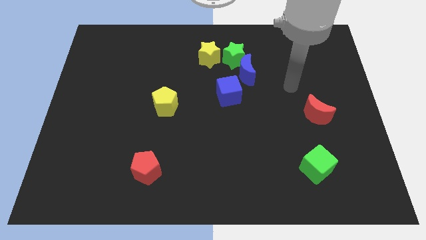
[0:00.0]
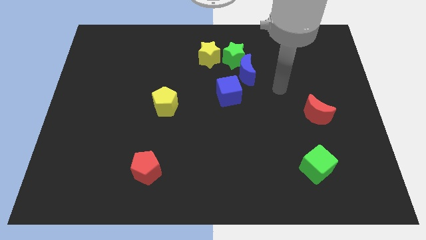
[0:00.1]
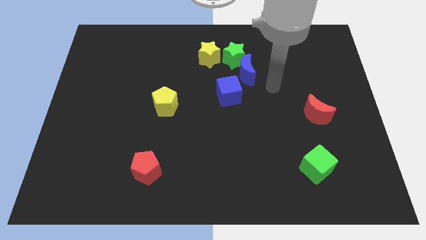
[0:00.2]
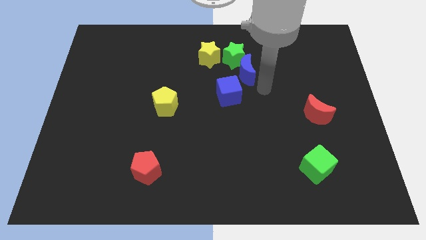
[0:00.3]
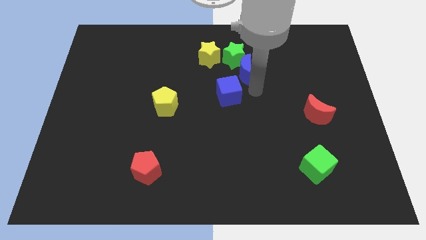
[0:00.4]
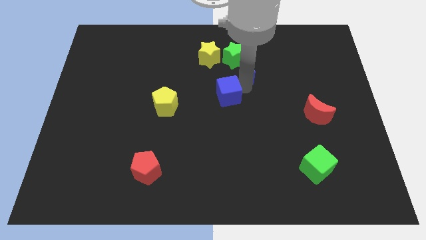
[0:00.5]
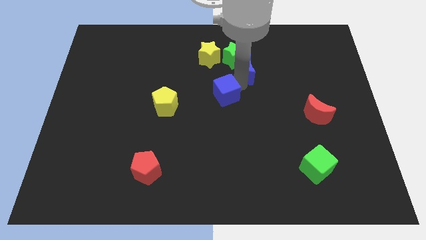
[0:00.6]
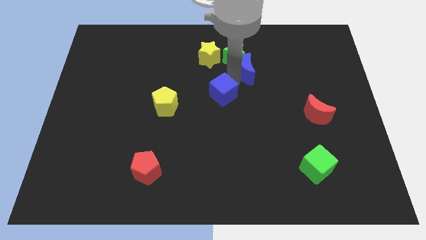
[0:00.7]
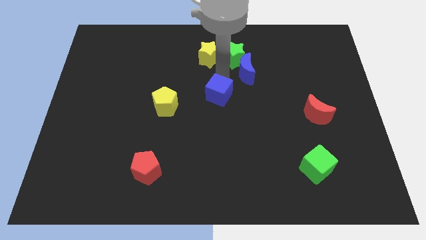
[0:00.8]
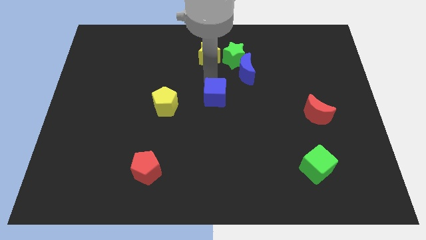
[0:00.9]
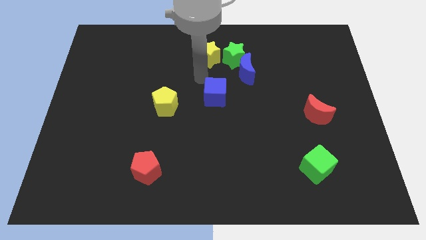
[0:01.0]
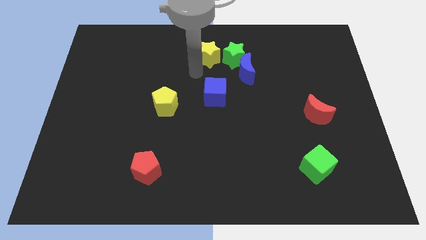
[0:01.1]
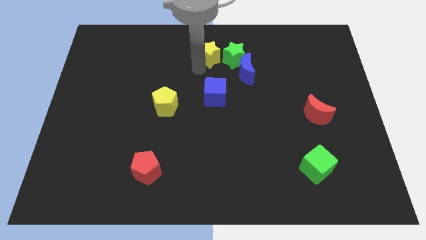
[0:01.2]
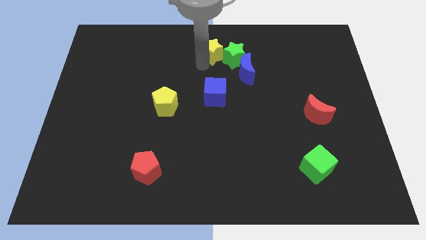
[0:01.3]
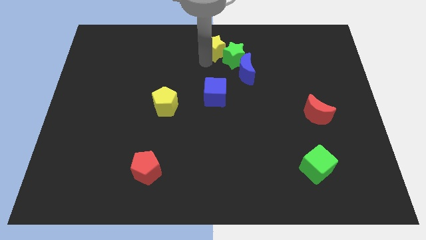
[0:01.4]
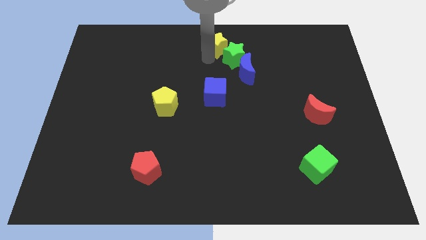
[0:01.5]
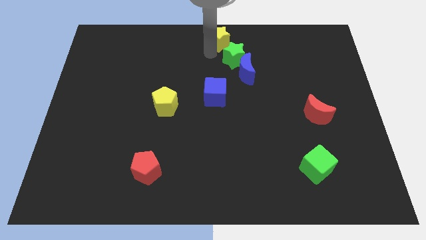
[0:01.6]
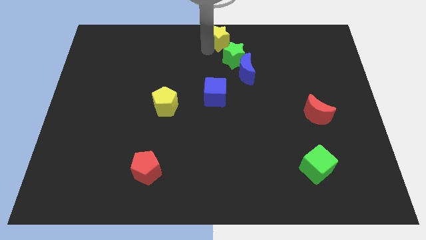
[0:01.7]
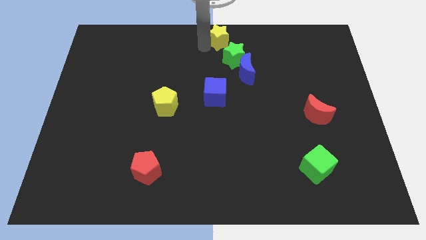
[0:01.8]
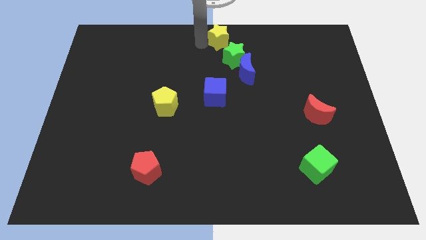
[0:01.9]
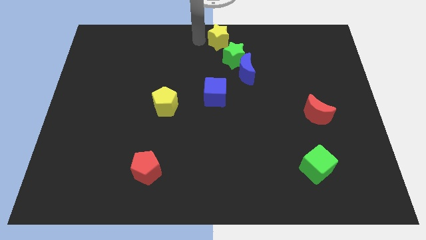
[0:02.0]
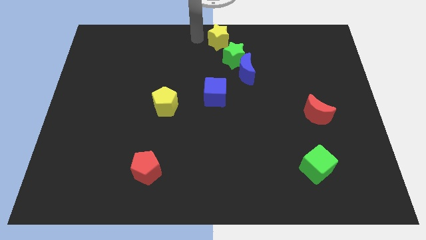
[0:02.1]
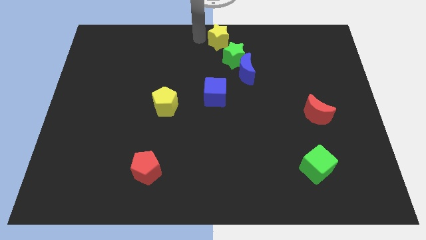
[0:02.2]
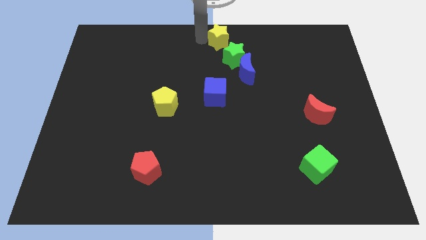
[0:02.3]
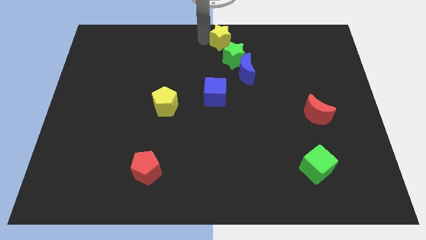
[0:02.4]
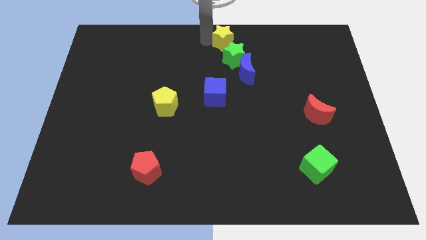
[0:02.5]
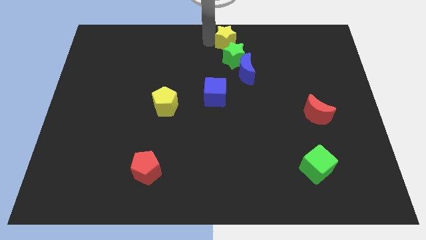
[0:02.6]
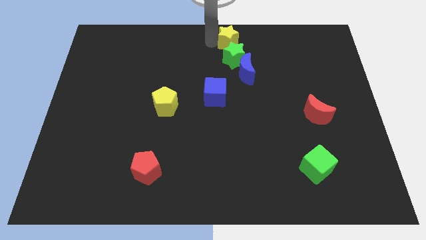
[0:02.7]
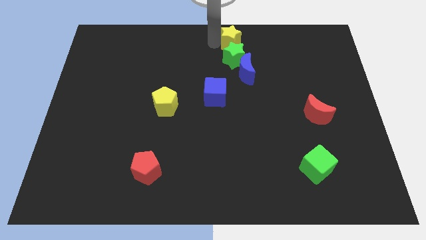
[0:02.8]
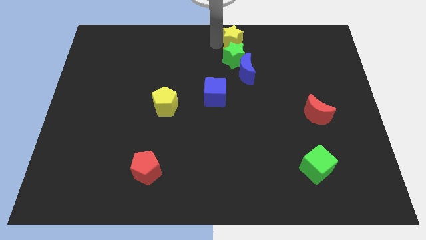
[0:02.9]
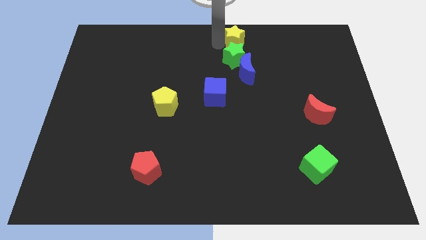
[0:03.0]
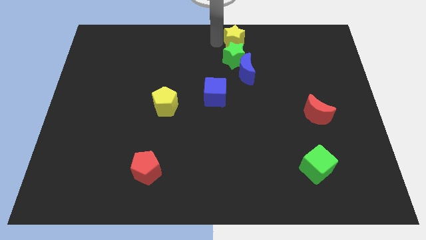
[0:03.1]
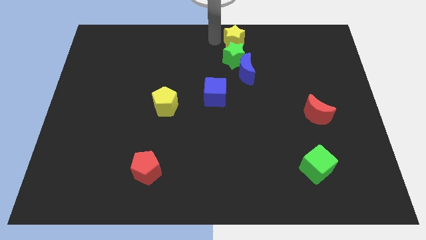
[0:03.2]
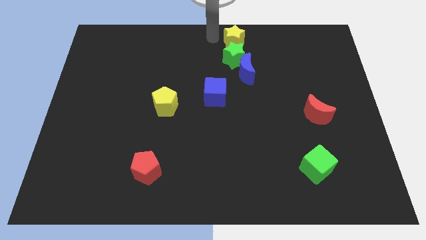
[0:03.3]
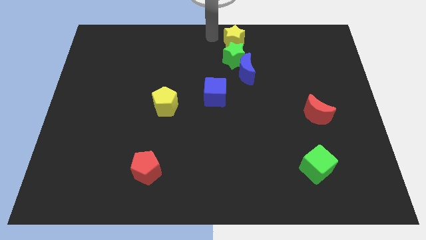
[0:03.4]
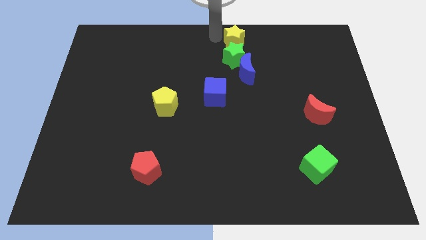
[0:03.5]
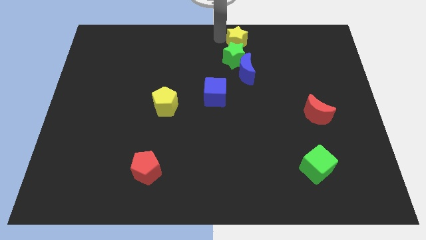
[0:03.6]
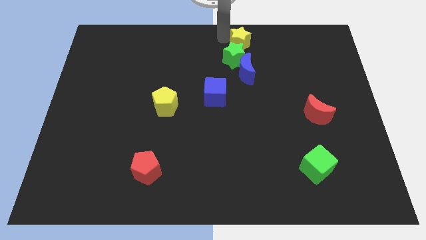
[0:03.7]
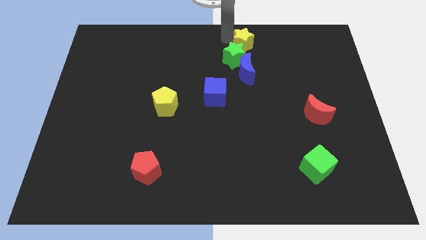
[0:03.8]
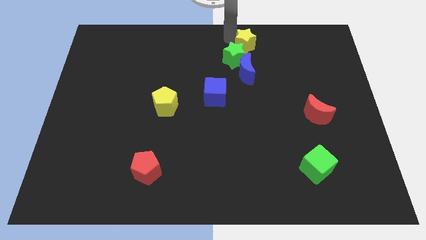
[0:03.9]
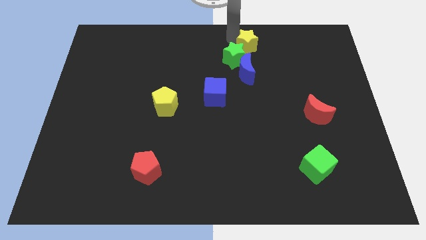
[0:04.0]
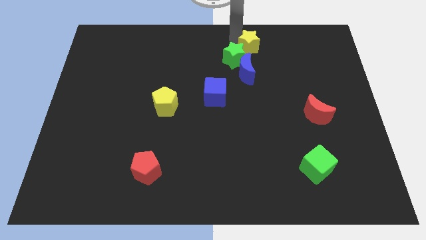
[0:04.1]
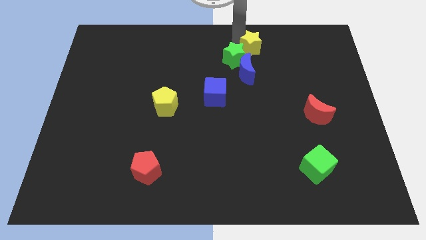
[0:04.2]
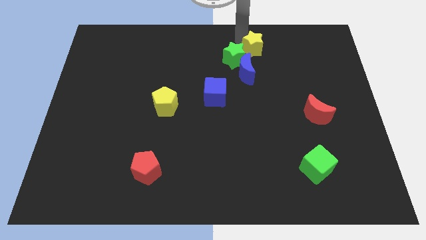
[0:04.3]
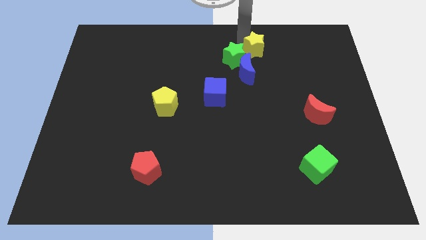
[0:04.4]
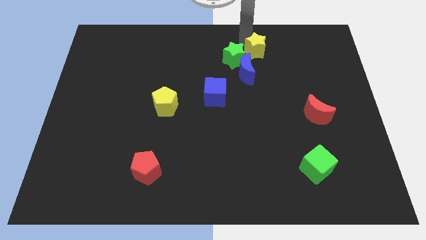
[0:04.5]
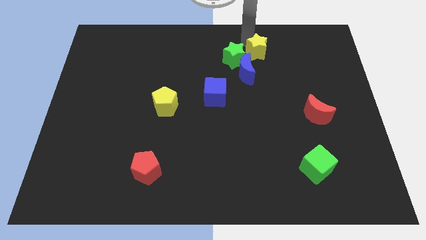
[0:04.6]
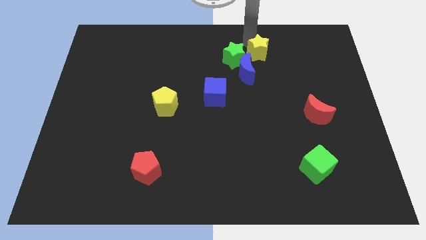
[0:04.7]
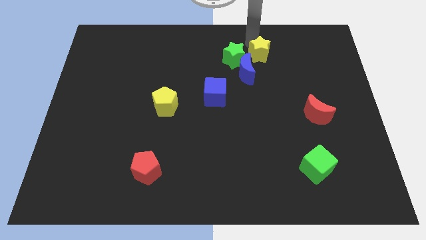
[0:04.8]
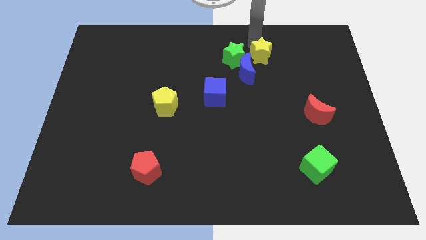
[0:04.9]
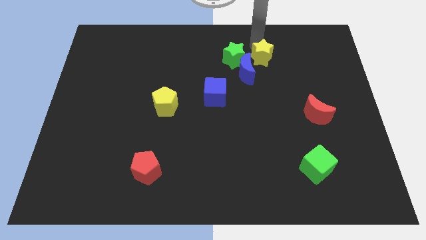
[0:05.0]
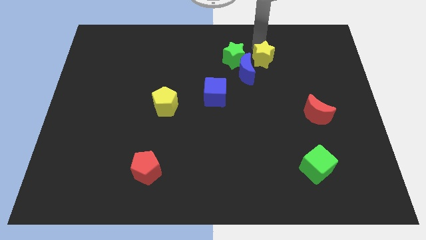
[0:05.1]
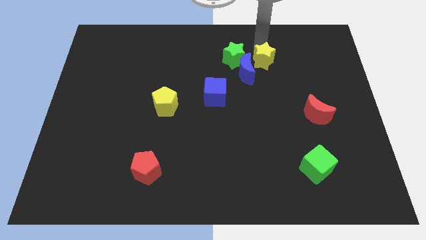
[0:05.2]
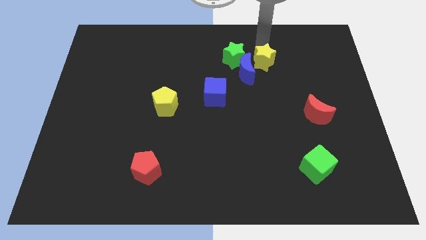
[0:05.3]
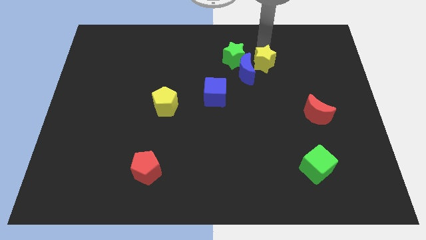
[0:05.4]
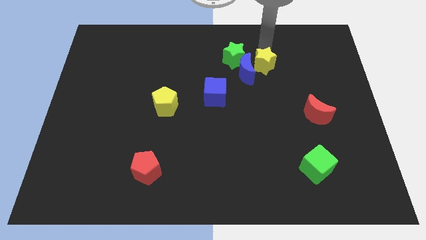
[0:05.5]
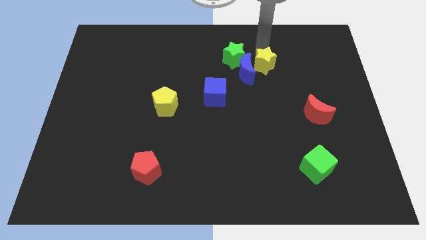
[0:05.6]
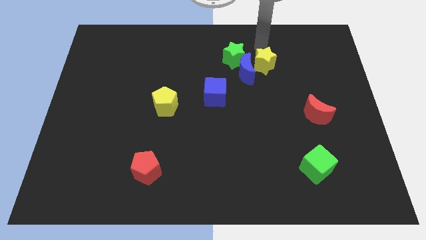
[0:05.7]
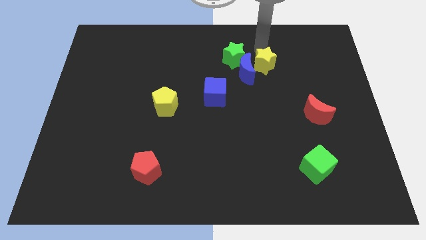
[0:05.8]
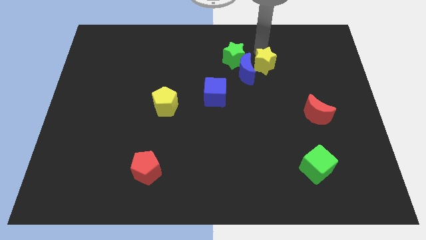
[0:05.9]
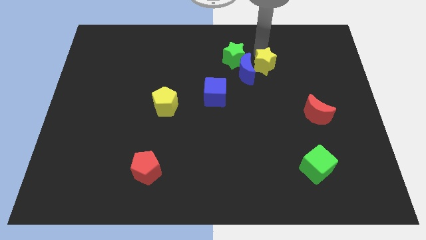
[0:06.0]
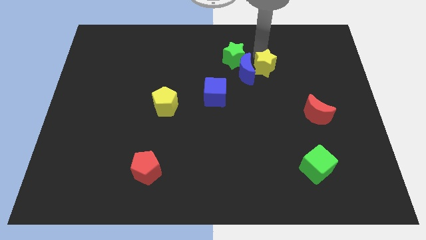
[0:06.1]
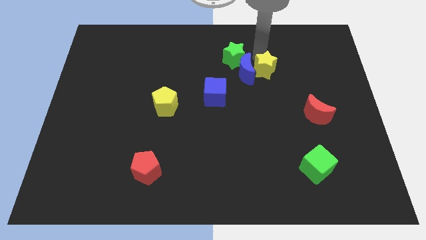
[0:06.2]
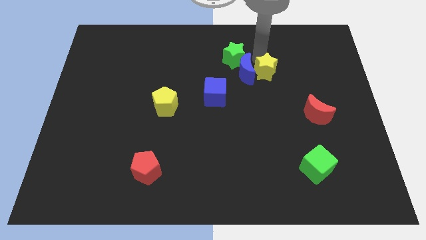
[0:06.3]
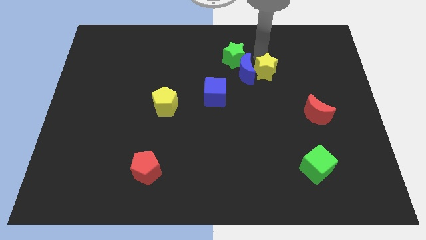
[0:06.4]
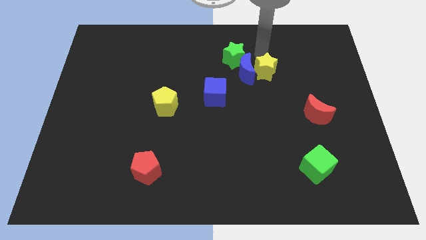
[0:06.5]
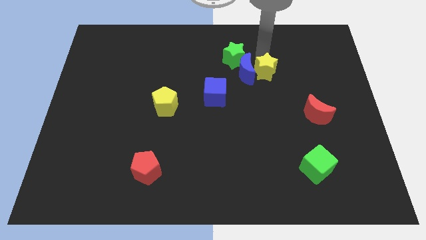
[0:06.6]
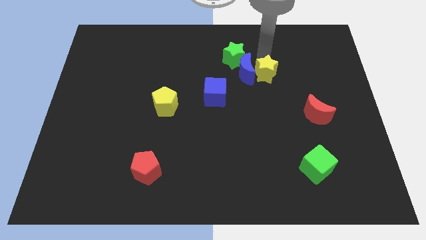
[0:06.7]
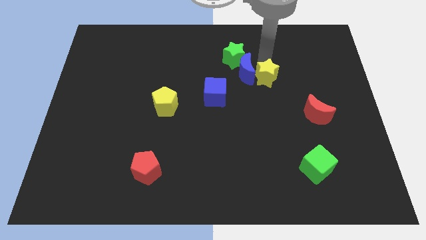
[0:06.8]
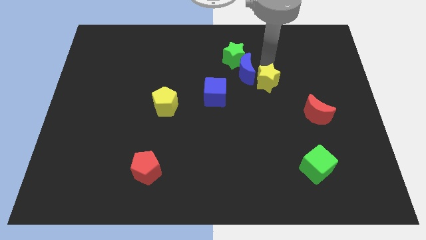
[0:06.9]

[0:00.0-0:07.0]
move the yellow star just right of the blue cube

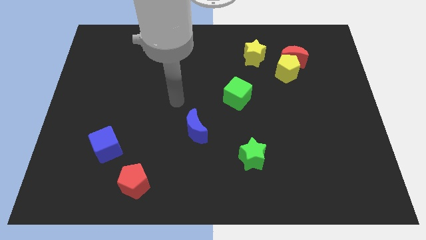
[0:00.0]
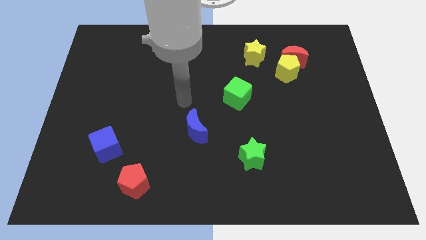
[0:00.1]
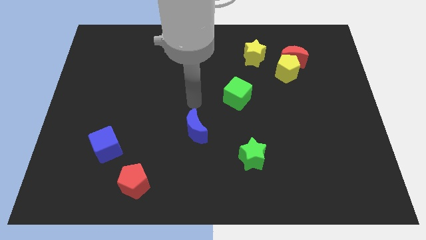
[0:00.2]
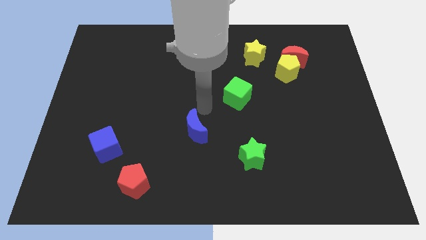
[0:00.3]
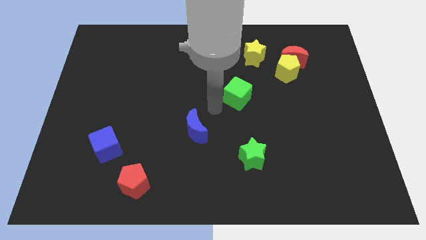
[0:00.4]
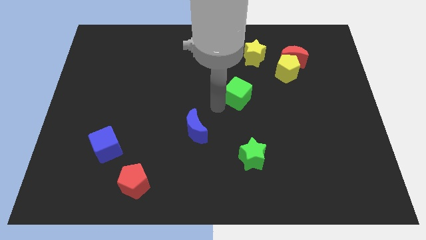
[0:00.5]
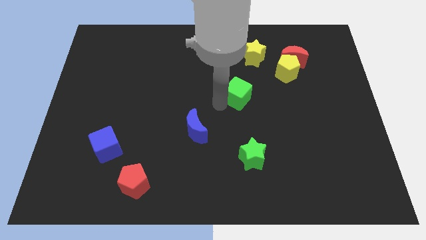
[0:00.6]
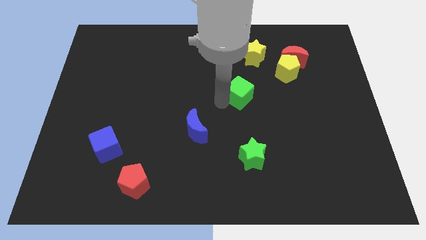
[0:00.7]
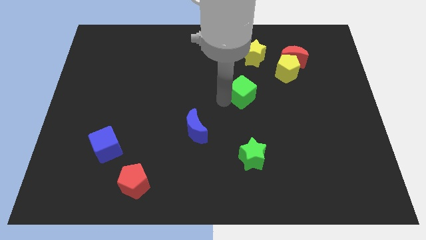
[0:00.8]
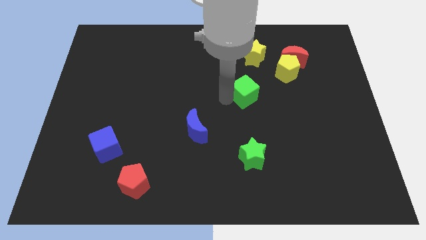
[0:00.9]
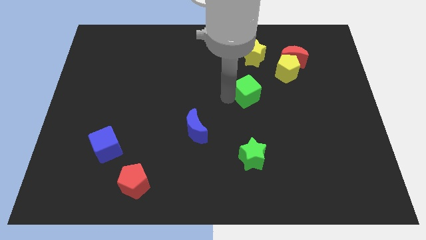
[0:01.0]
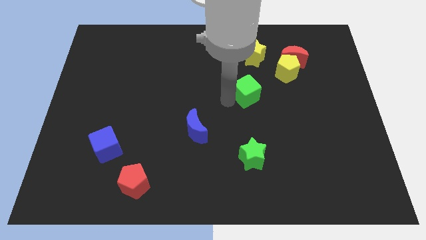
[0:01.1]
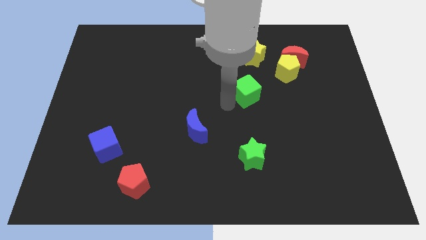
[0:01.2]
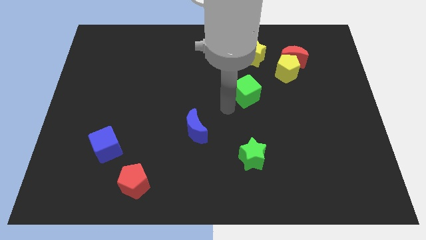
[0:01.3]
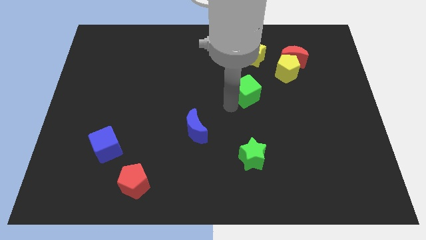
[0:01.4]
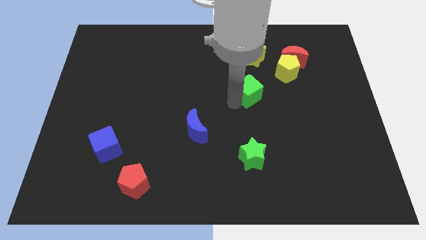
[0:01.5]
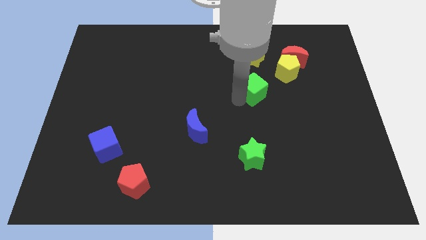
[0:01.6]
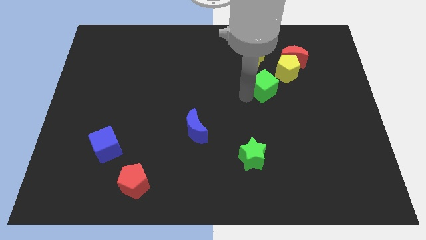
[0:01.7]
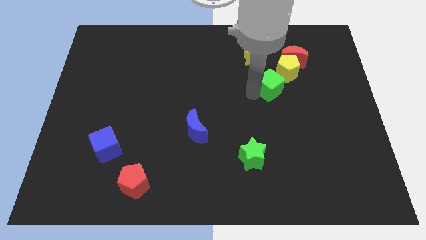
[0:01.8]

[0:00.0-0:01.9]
slide the green cube to the bottom left of the red moon
